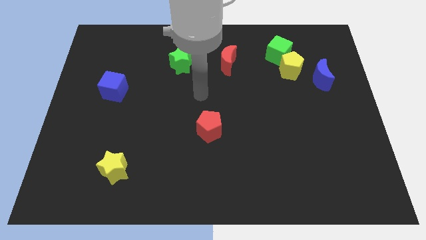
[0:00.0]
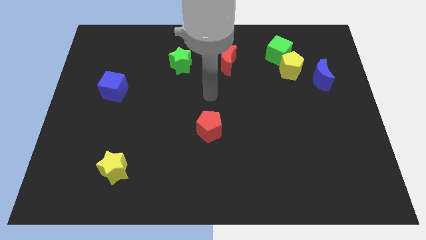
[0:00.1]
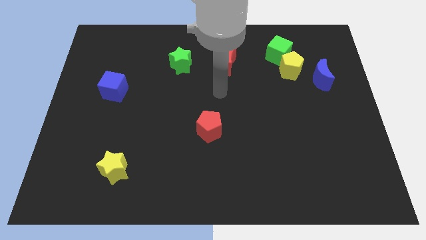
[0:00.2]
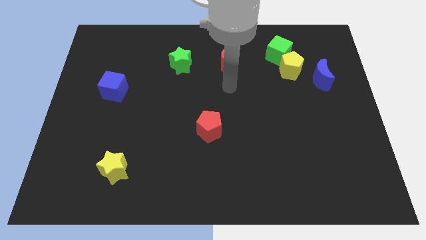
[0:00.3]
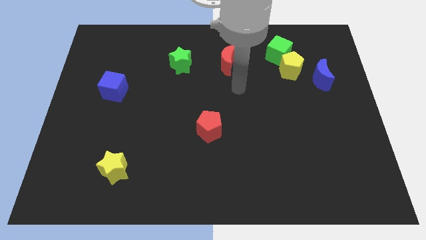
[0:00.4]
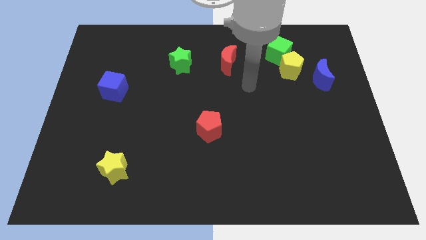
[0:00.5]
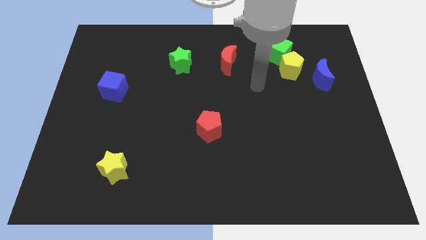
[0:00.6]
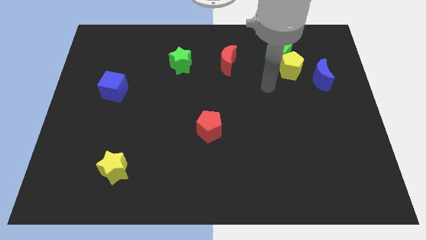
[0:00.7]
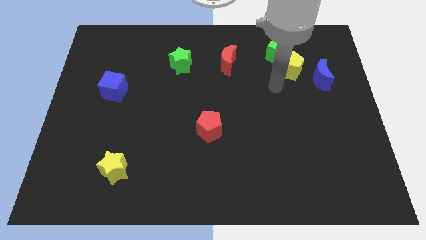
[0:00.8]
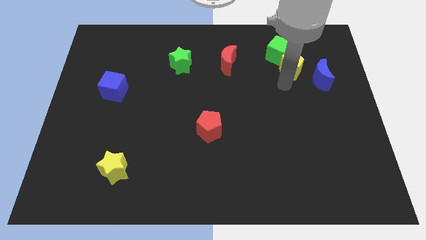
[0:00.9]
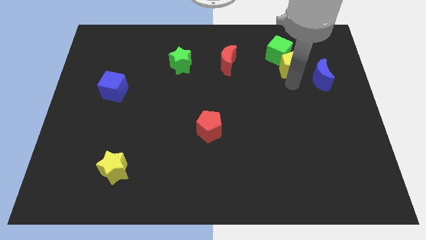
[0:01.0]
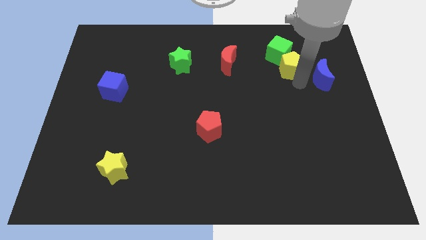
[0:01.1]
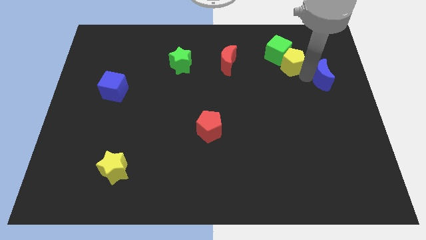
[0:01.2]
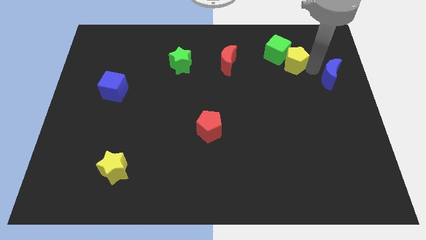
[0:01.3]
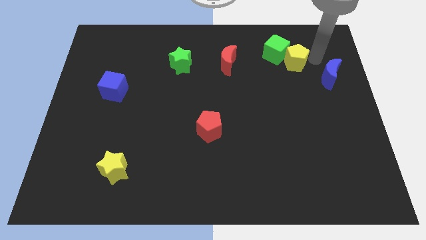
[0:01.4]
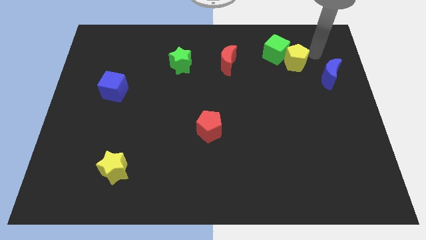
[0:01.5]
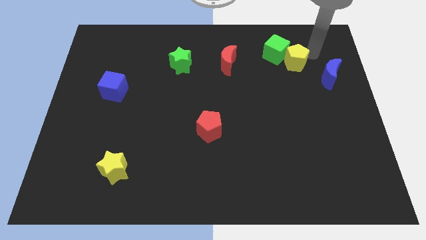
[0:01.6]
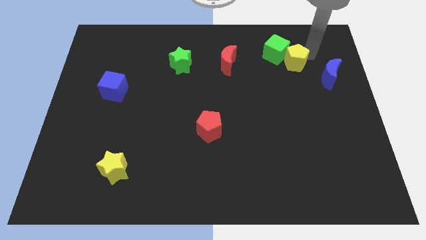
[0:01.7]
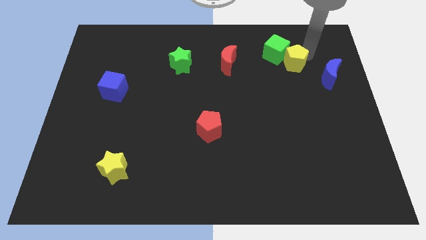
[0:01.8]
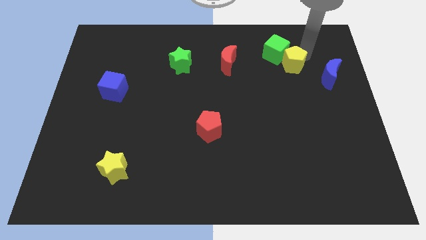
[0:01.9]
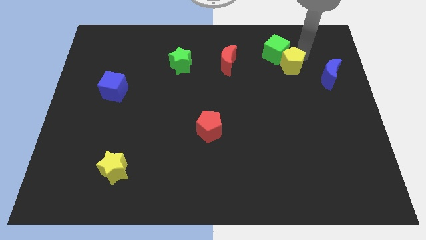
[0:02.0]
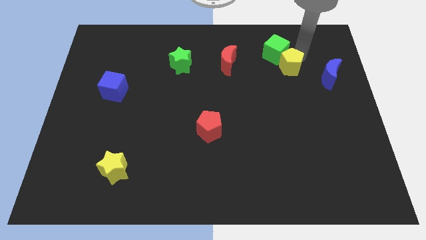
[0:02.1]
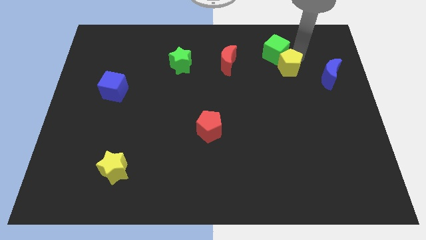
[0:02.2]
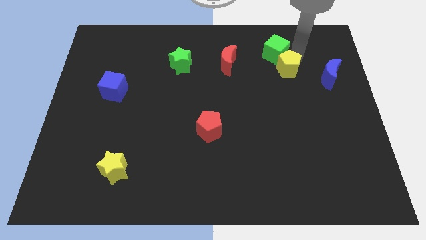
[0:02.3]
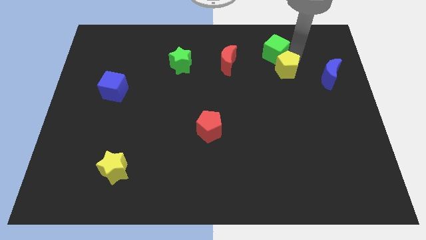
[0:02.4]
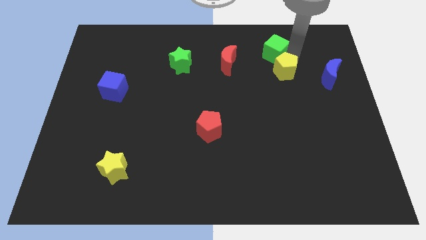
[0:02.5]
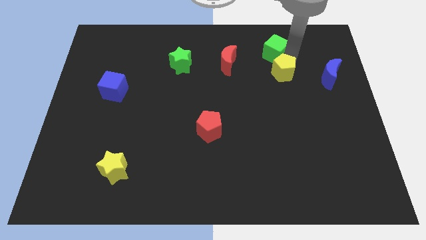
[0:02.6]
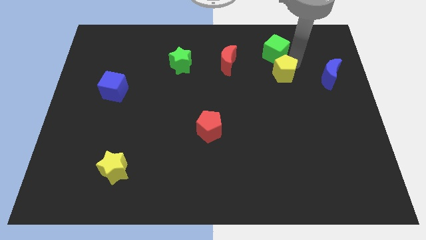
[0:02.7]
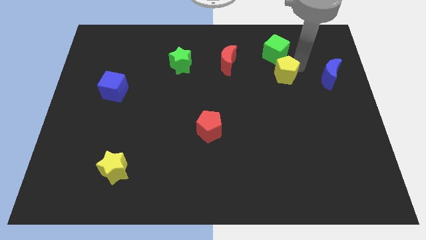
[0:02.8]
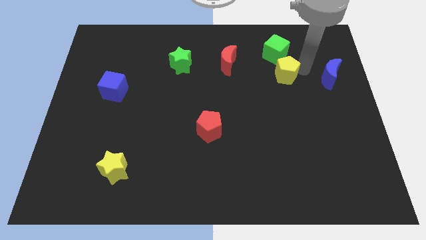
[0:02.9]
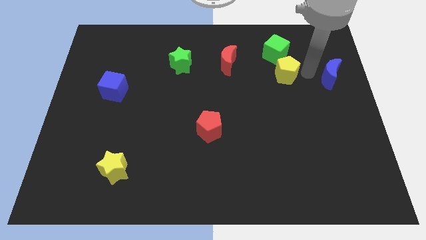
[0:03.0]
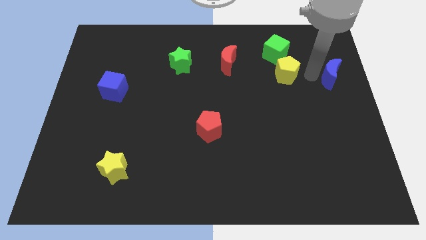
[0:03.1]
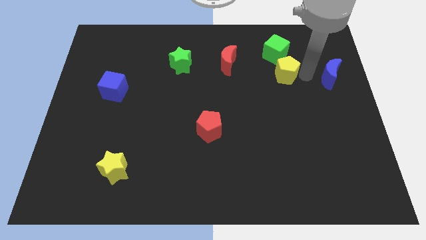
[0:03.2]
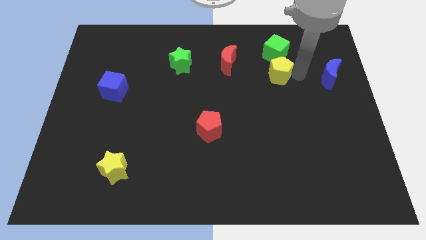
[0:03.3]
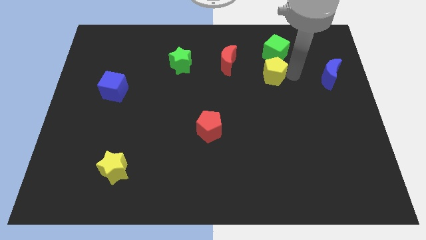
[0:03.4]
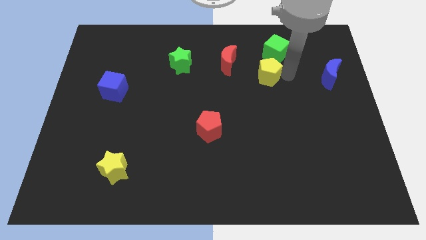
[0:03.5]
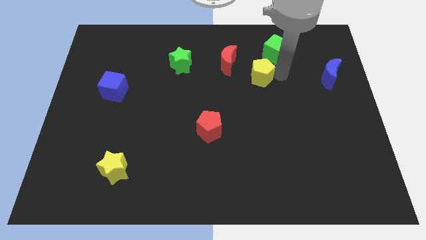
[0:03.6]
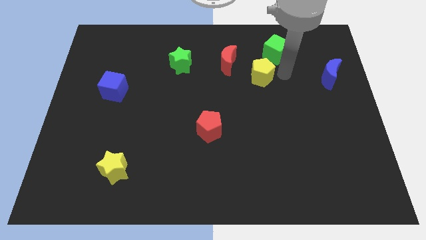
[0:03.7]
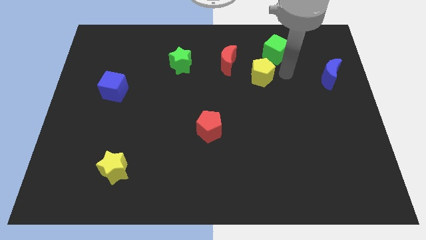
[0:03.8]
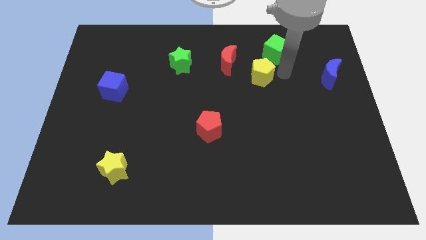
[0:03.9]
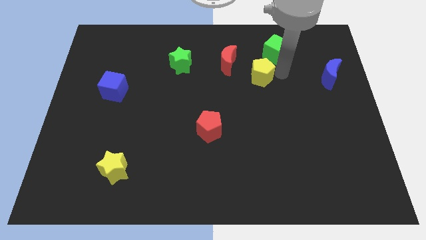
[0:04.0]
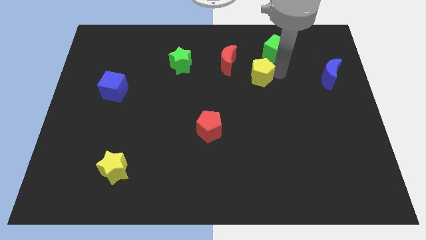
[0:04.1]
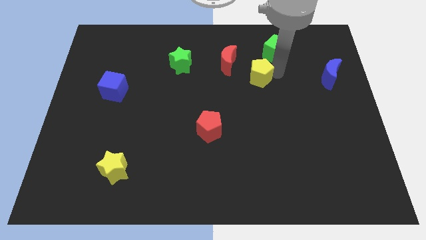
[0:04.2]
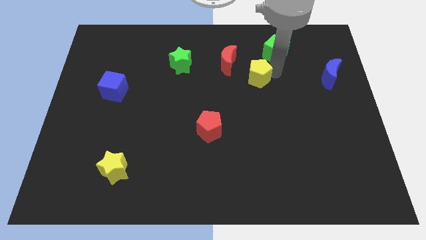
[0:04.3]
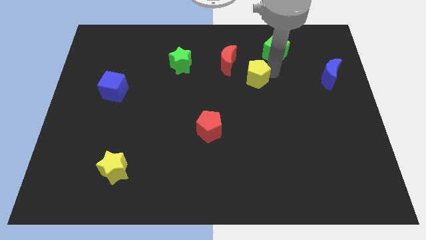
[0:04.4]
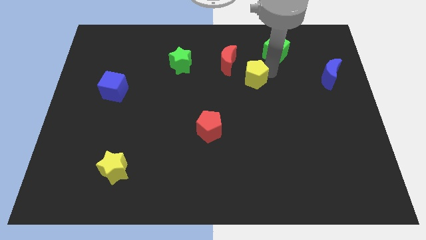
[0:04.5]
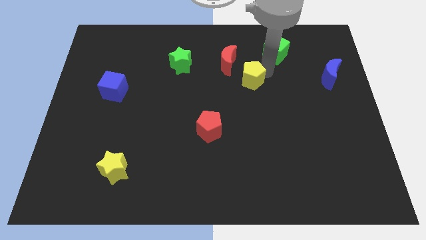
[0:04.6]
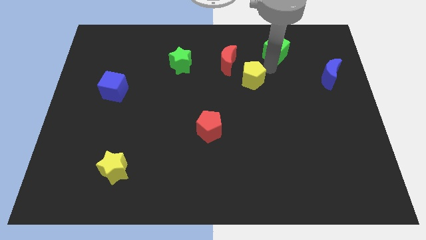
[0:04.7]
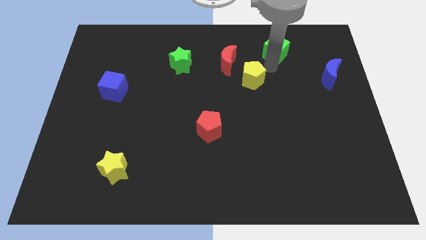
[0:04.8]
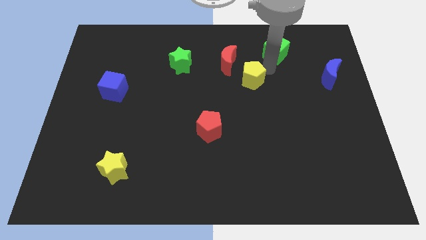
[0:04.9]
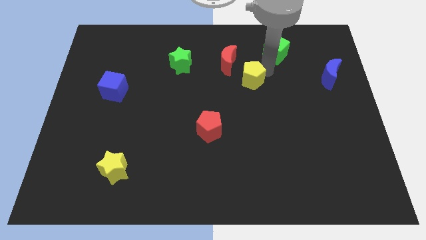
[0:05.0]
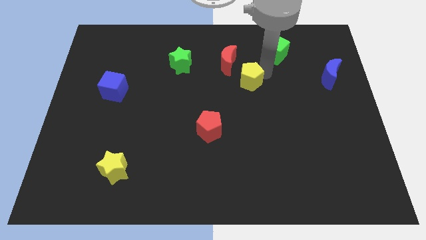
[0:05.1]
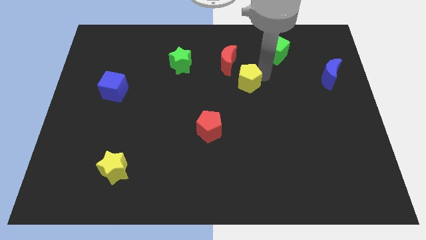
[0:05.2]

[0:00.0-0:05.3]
move the yellow pentagon to the bottom of the red moon

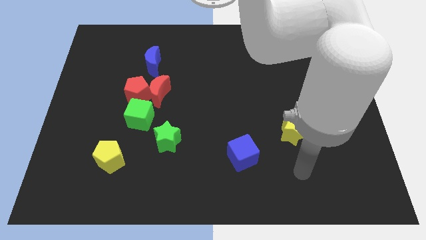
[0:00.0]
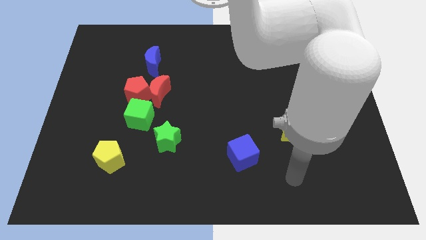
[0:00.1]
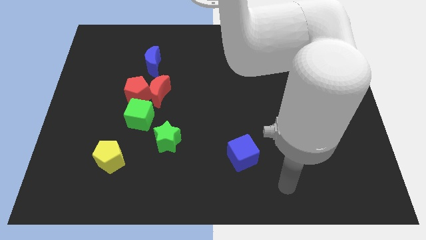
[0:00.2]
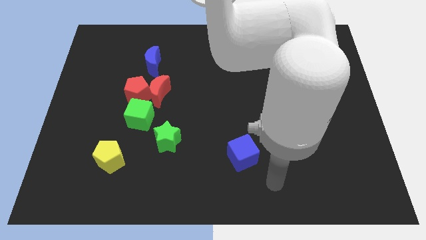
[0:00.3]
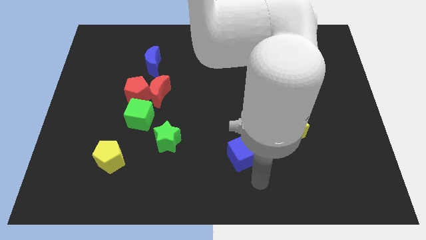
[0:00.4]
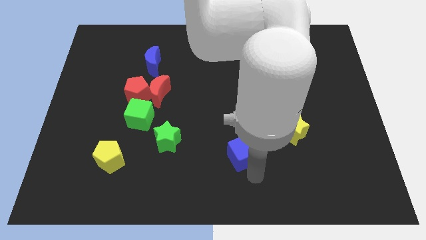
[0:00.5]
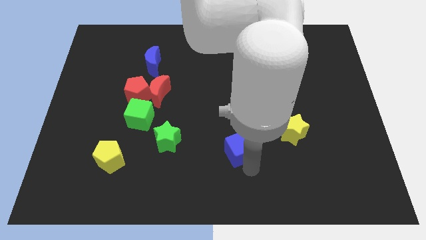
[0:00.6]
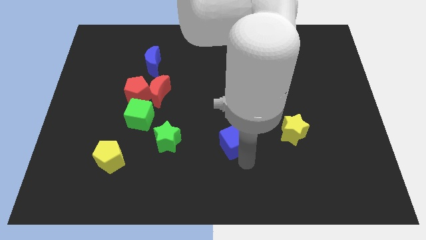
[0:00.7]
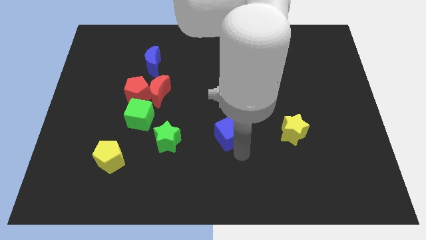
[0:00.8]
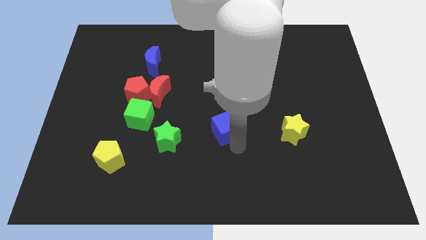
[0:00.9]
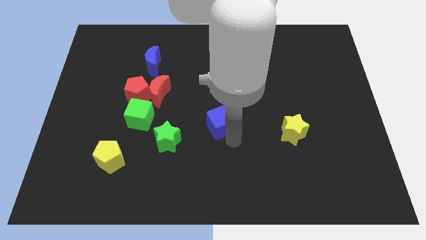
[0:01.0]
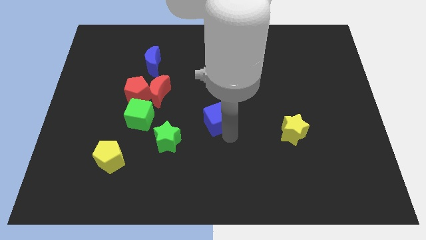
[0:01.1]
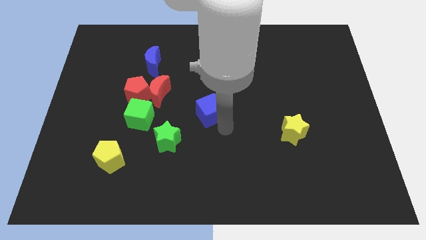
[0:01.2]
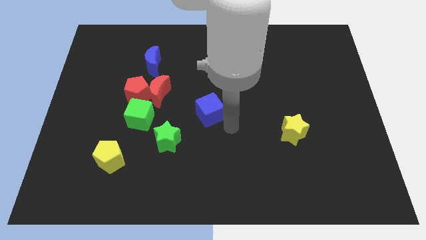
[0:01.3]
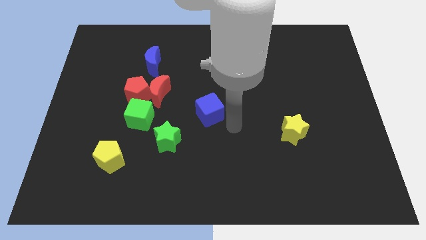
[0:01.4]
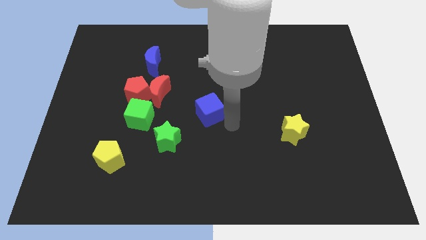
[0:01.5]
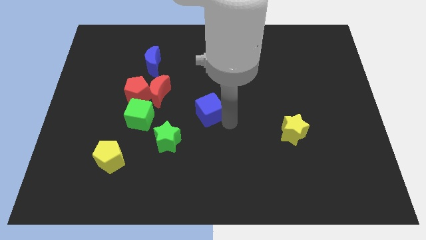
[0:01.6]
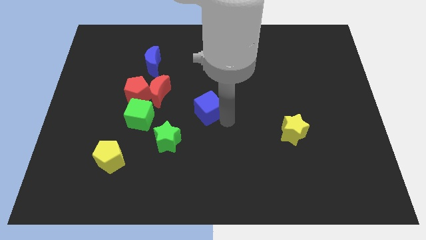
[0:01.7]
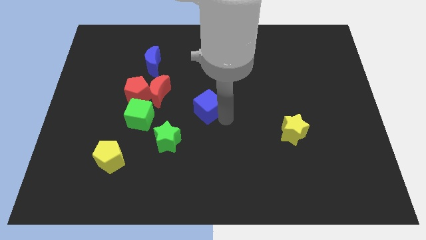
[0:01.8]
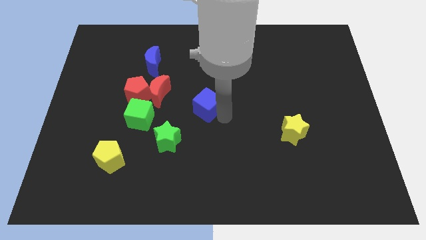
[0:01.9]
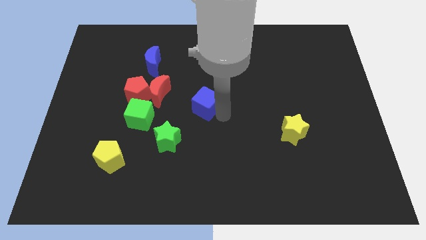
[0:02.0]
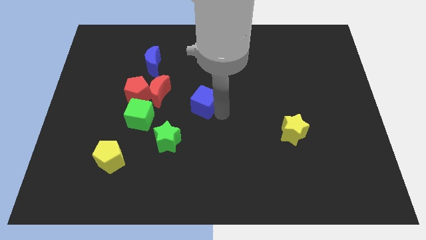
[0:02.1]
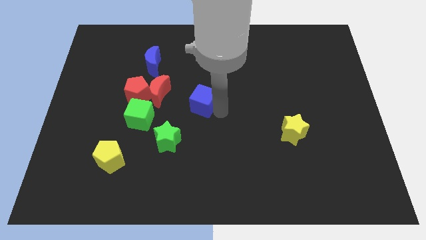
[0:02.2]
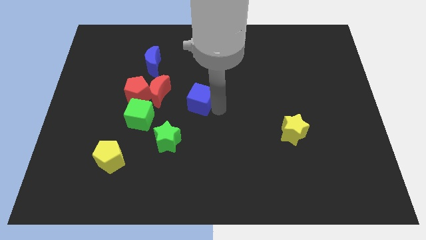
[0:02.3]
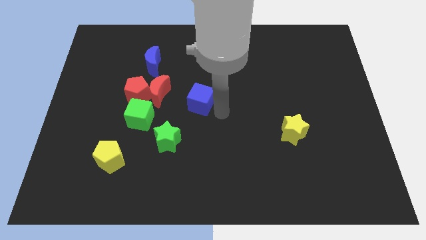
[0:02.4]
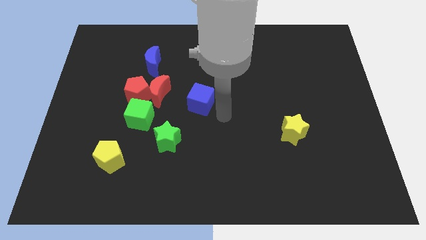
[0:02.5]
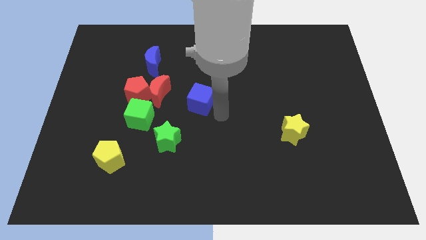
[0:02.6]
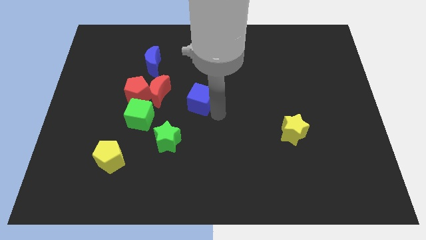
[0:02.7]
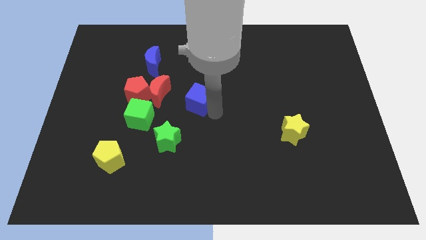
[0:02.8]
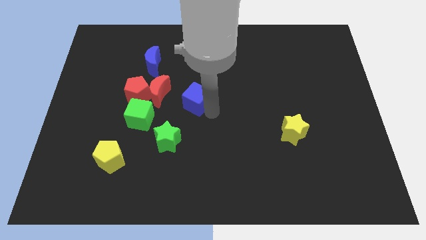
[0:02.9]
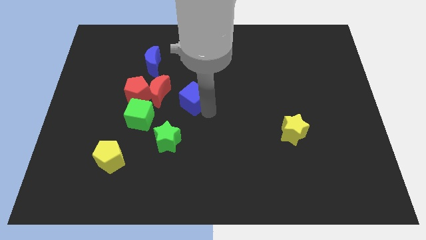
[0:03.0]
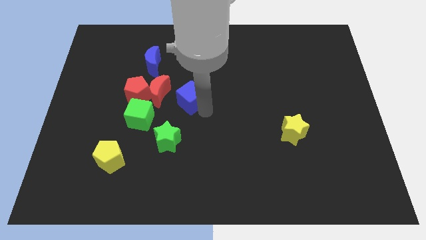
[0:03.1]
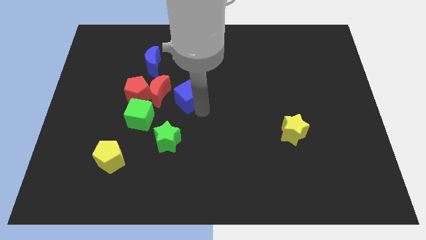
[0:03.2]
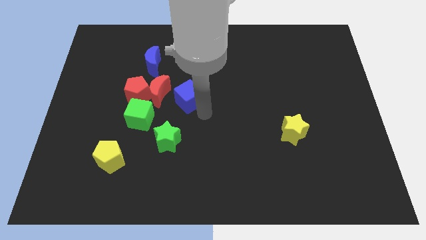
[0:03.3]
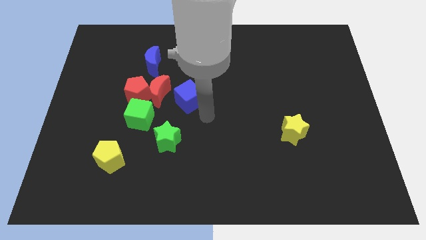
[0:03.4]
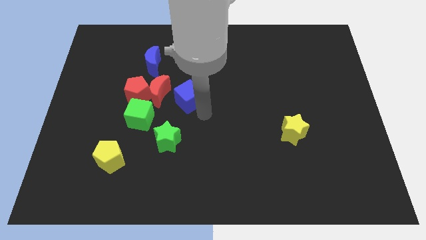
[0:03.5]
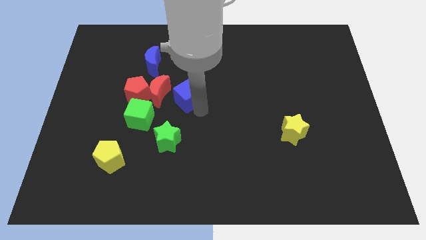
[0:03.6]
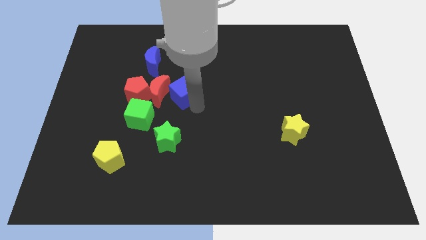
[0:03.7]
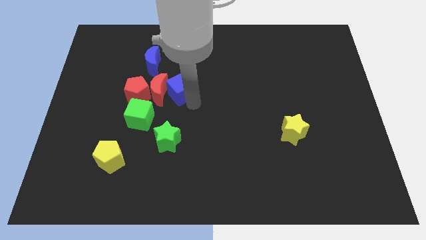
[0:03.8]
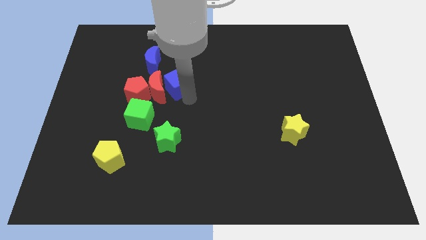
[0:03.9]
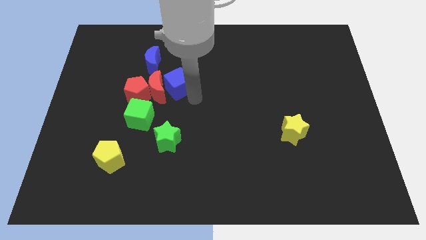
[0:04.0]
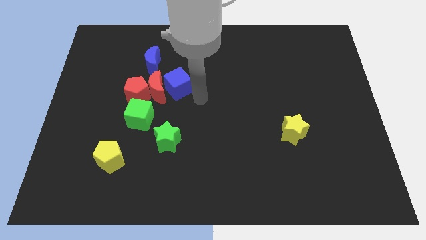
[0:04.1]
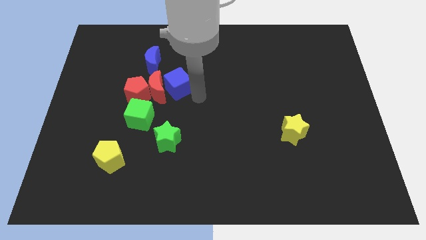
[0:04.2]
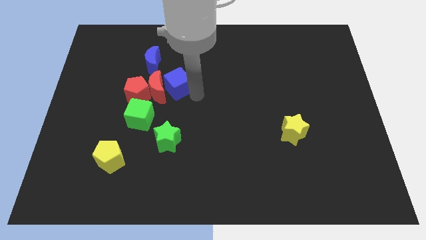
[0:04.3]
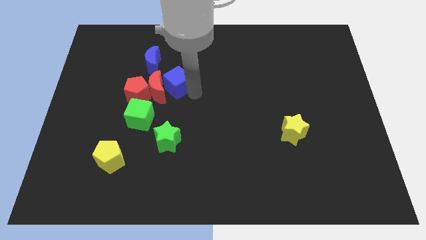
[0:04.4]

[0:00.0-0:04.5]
put the blue cube to the top right side of the red pentagon
